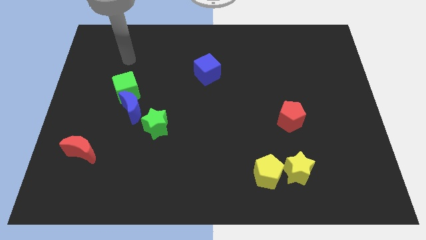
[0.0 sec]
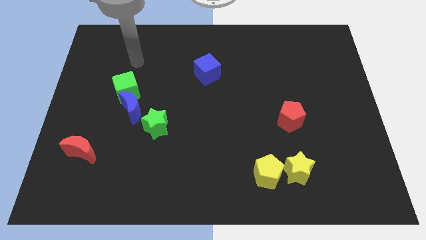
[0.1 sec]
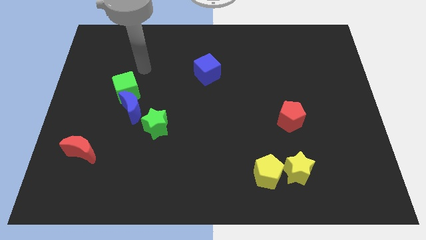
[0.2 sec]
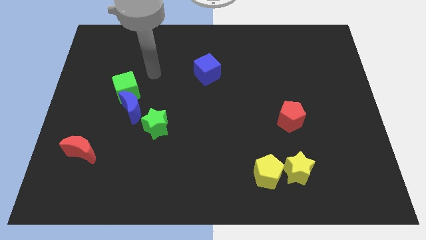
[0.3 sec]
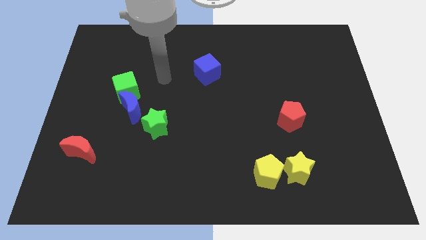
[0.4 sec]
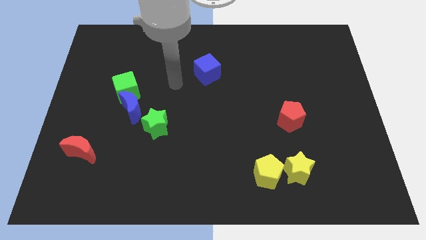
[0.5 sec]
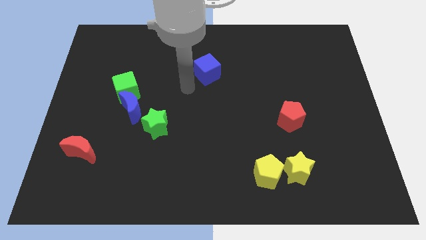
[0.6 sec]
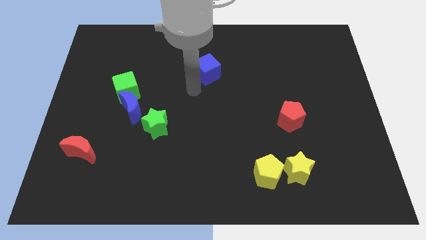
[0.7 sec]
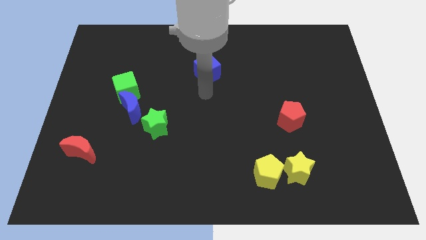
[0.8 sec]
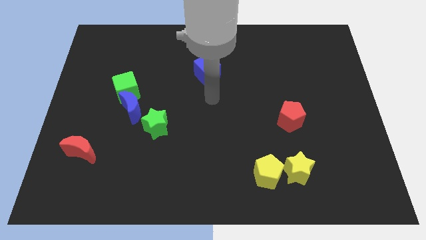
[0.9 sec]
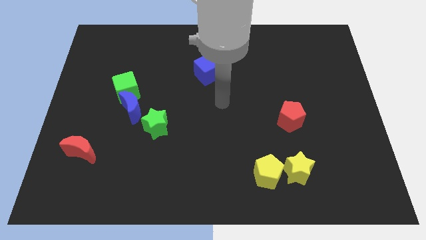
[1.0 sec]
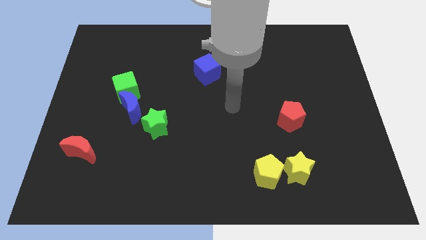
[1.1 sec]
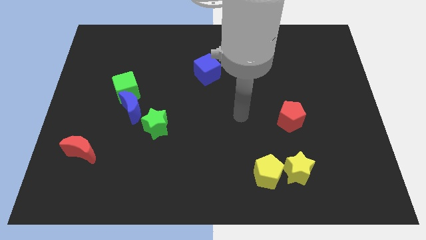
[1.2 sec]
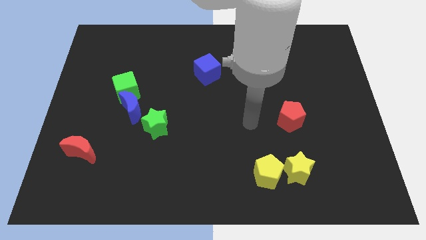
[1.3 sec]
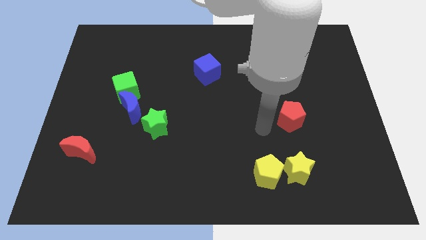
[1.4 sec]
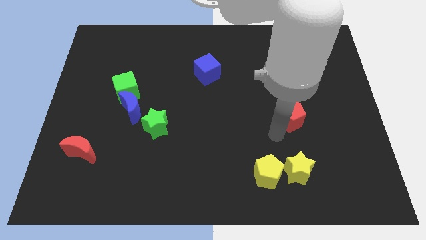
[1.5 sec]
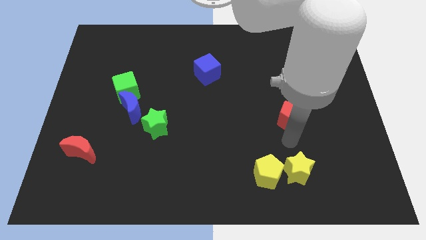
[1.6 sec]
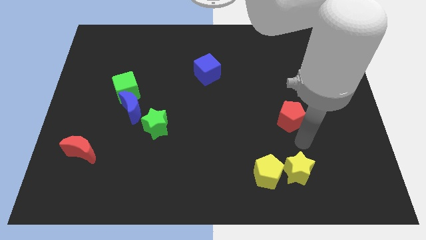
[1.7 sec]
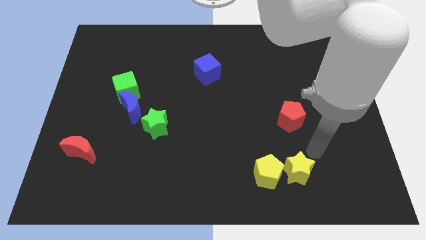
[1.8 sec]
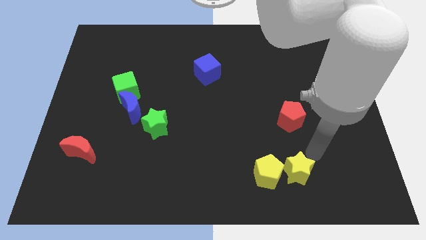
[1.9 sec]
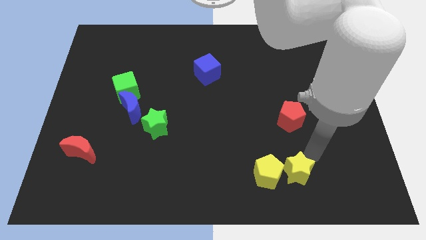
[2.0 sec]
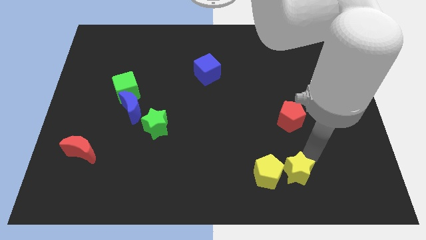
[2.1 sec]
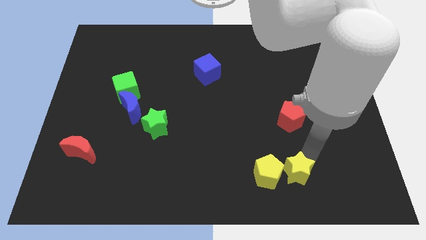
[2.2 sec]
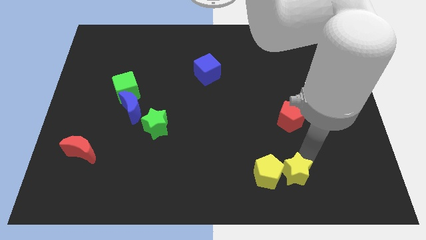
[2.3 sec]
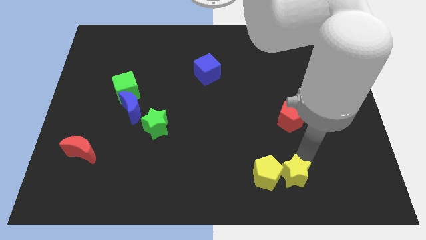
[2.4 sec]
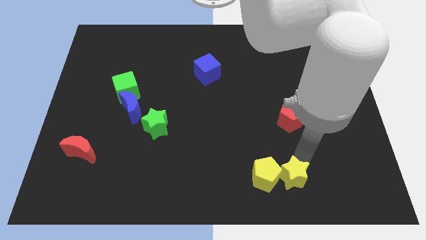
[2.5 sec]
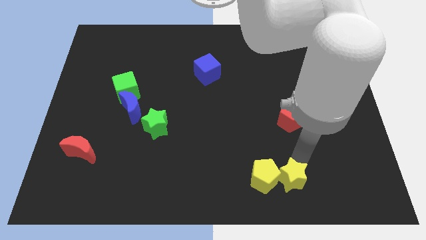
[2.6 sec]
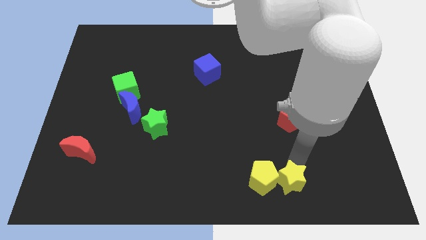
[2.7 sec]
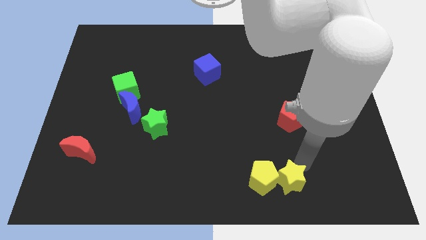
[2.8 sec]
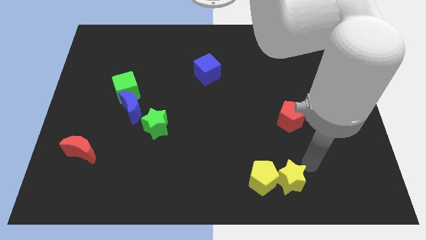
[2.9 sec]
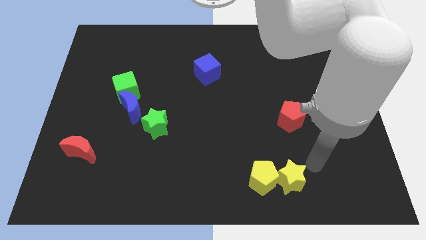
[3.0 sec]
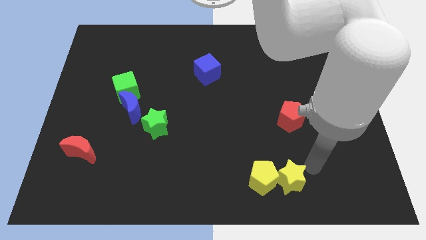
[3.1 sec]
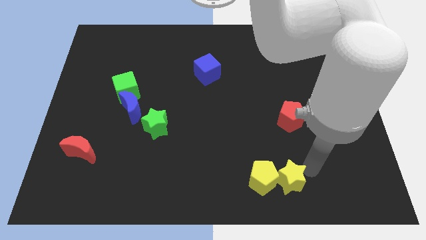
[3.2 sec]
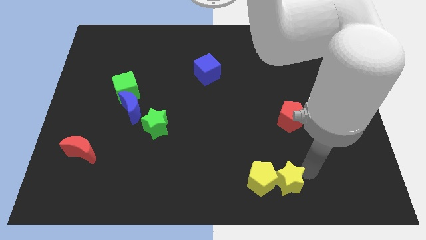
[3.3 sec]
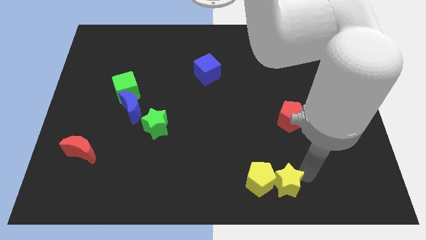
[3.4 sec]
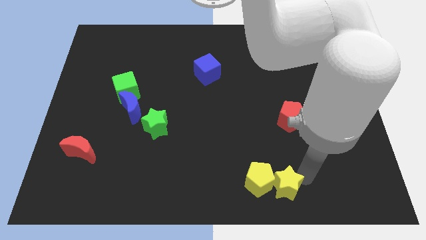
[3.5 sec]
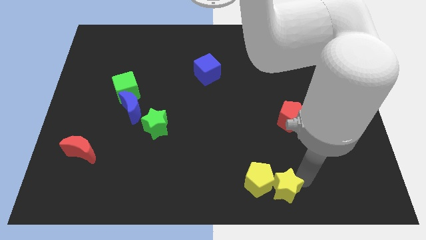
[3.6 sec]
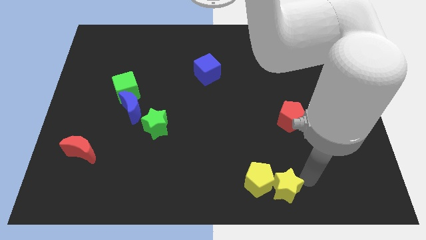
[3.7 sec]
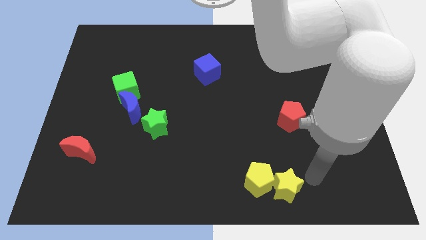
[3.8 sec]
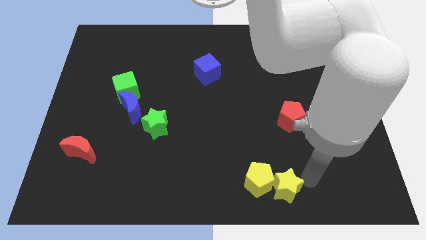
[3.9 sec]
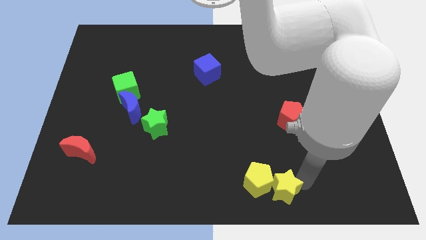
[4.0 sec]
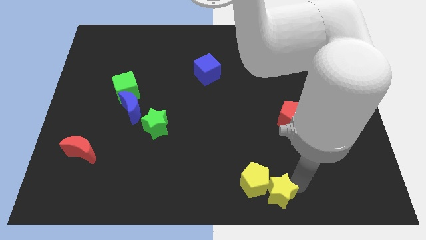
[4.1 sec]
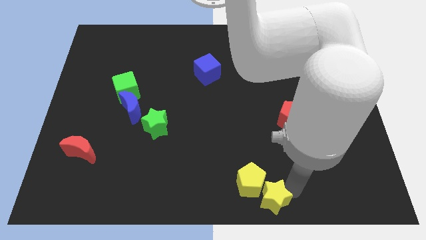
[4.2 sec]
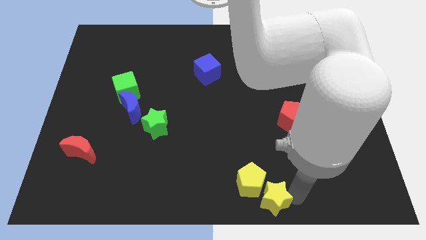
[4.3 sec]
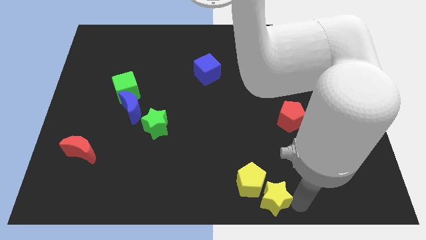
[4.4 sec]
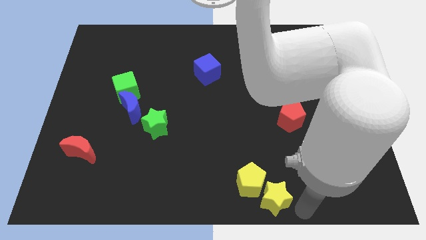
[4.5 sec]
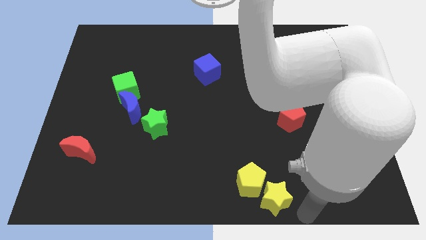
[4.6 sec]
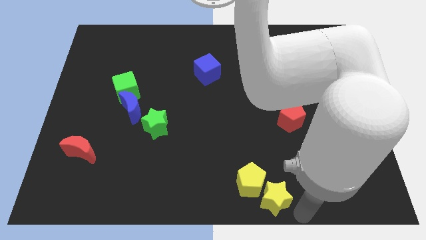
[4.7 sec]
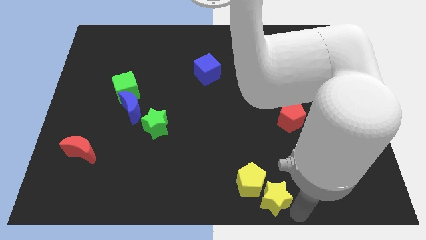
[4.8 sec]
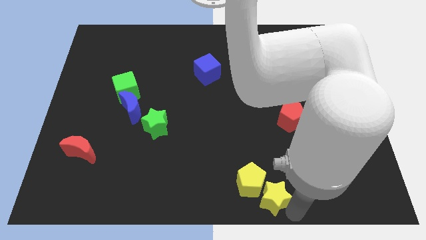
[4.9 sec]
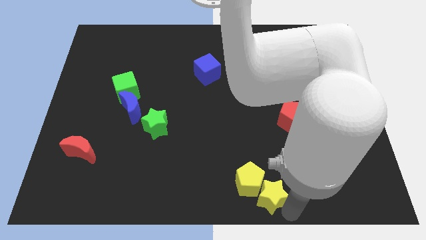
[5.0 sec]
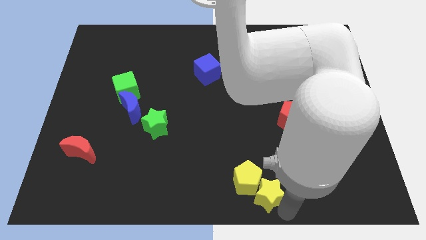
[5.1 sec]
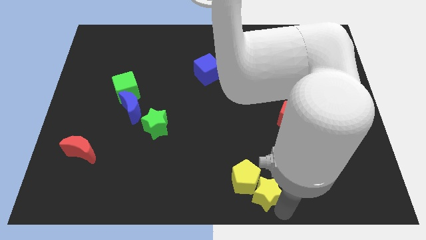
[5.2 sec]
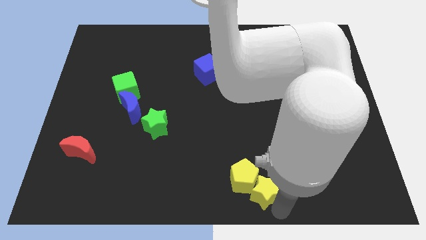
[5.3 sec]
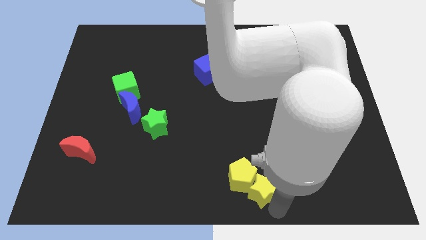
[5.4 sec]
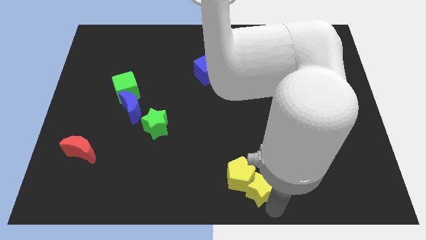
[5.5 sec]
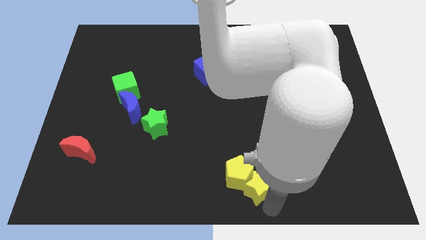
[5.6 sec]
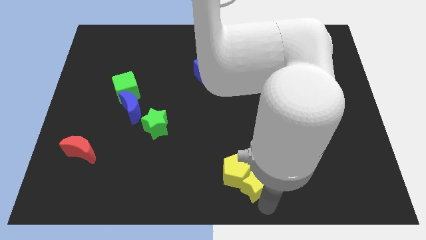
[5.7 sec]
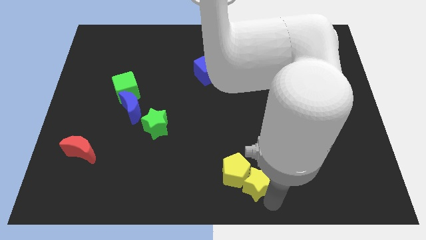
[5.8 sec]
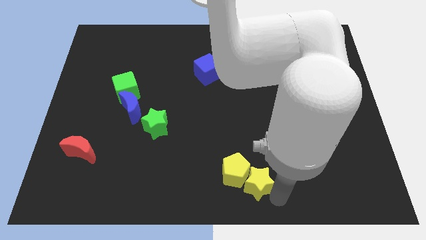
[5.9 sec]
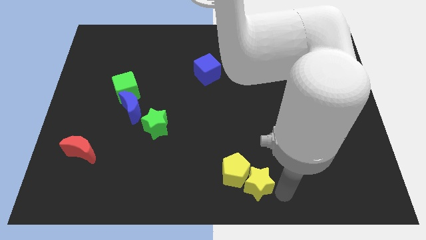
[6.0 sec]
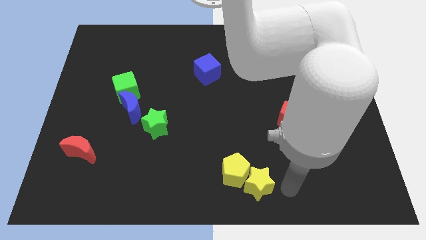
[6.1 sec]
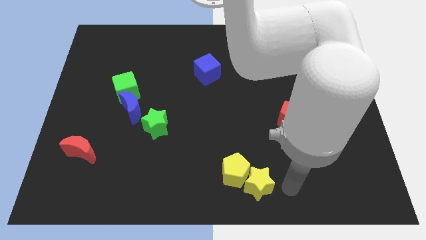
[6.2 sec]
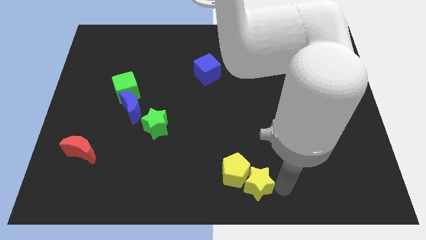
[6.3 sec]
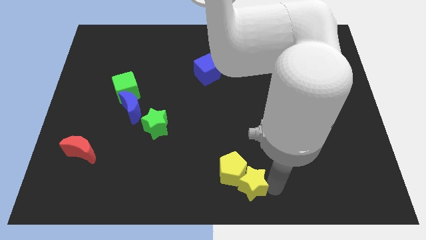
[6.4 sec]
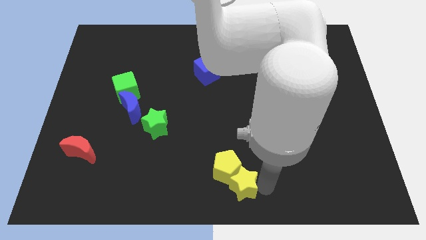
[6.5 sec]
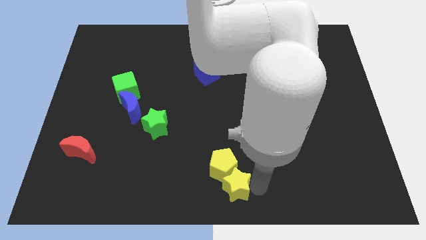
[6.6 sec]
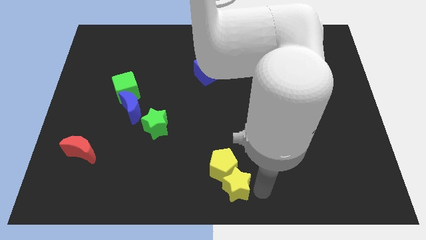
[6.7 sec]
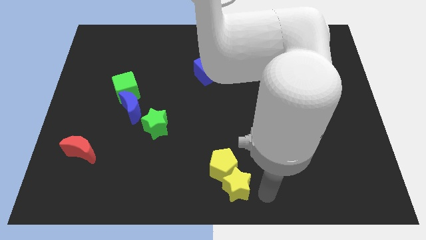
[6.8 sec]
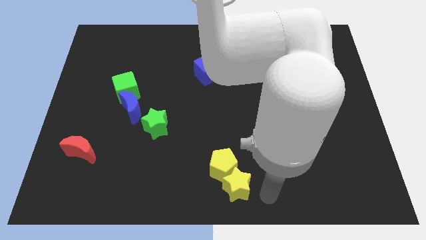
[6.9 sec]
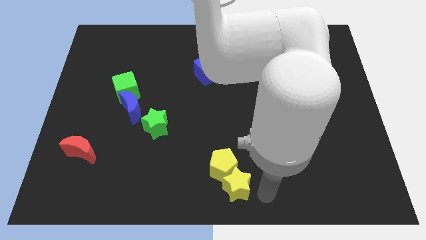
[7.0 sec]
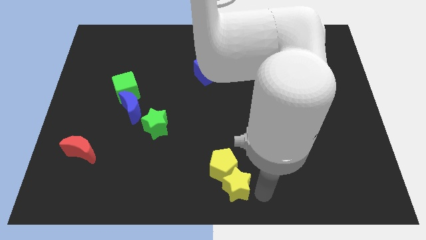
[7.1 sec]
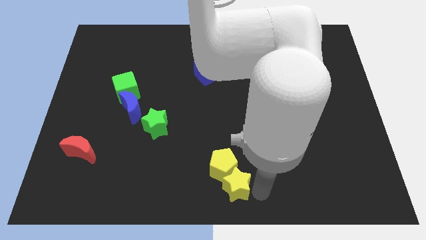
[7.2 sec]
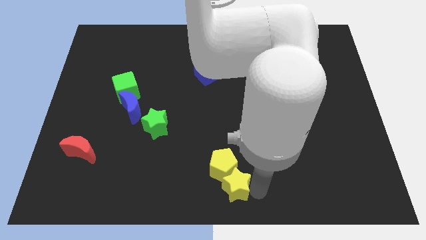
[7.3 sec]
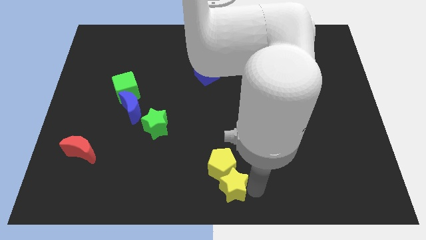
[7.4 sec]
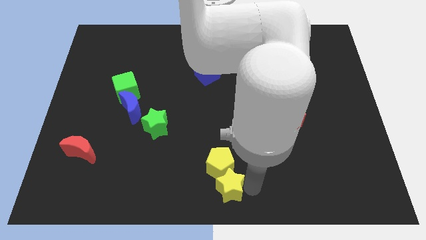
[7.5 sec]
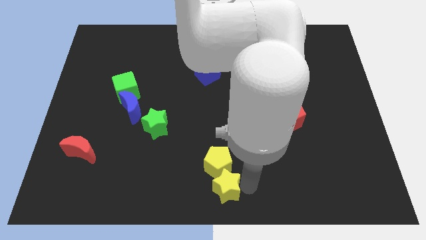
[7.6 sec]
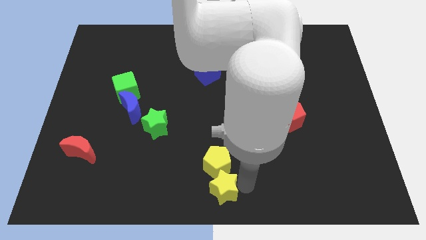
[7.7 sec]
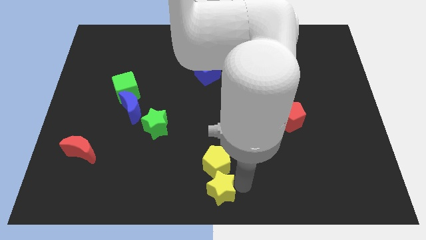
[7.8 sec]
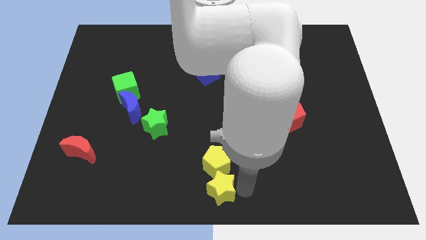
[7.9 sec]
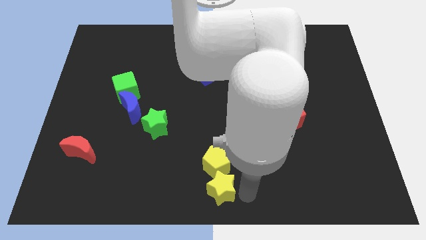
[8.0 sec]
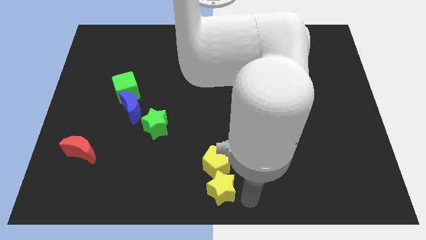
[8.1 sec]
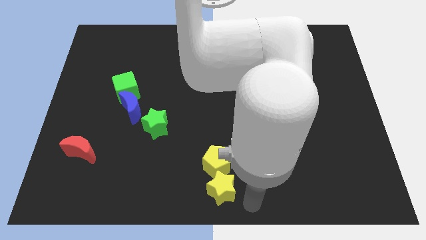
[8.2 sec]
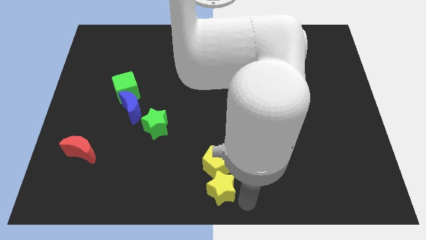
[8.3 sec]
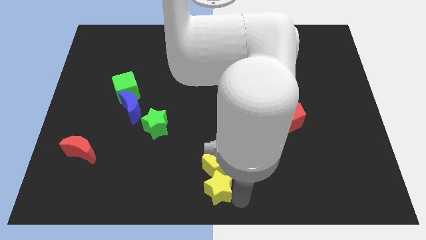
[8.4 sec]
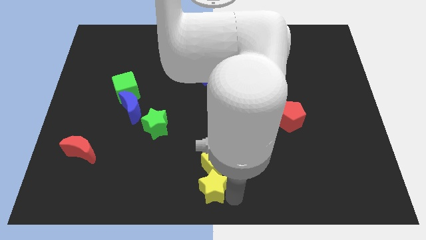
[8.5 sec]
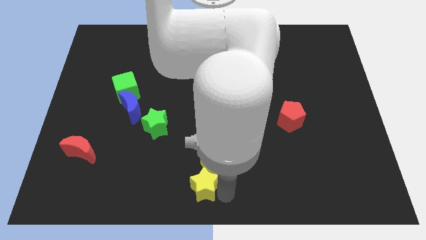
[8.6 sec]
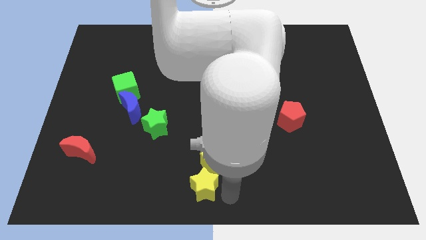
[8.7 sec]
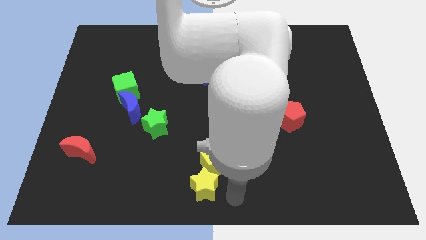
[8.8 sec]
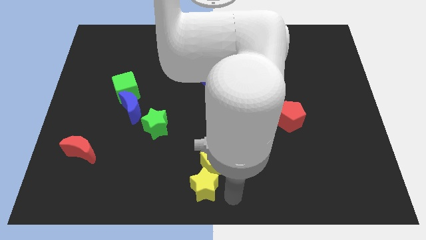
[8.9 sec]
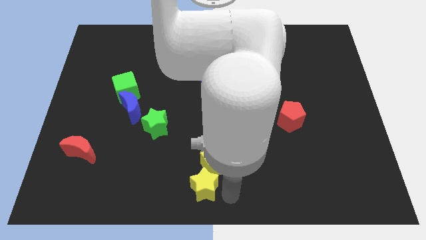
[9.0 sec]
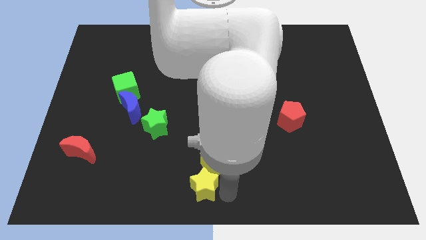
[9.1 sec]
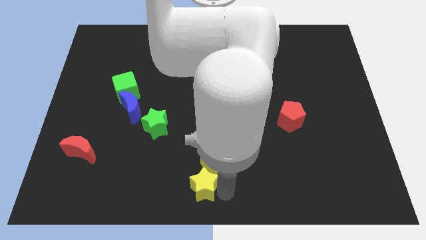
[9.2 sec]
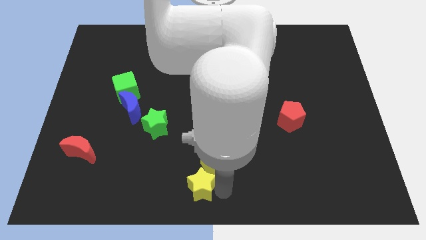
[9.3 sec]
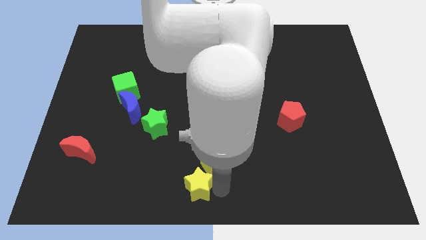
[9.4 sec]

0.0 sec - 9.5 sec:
move the yellow star to the left
